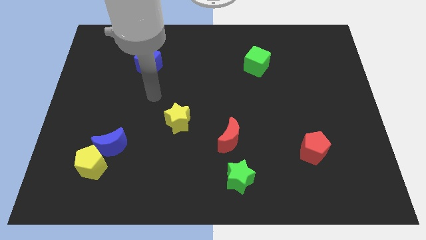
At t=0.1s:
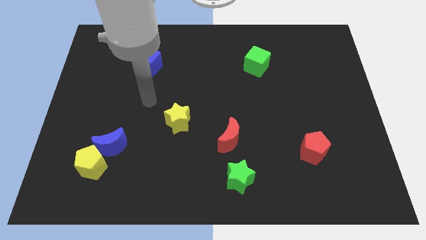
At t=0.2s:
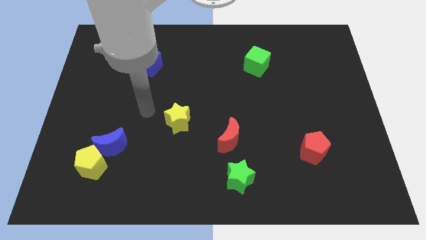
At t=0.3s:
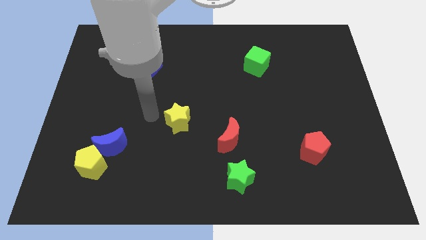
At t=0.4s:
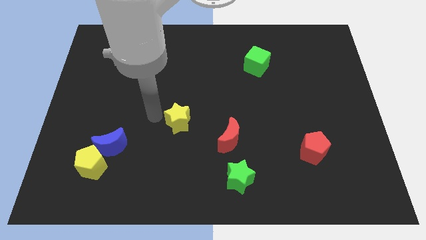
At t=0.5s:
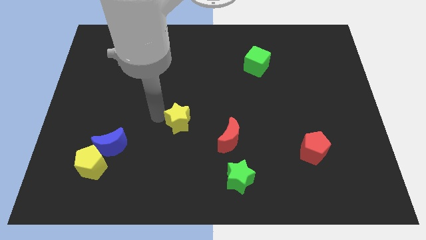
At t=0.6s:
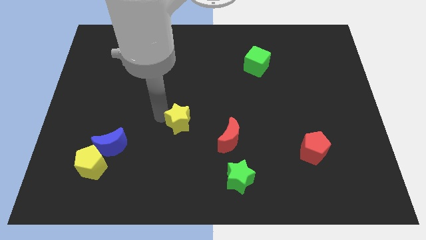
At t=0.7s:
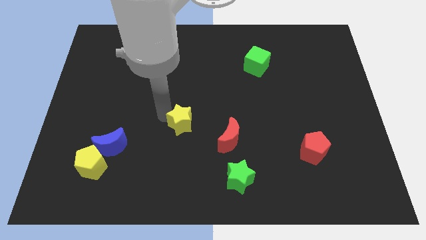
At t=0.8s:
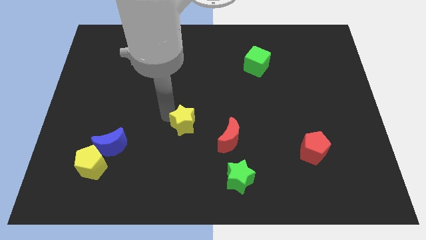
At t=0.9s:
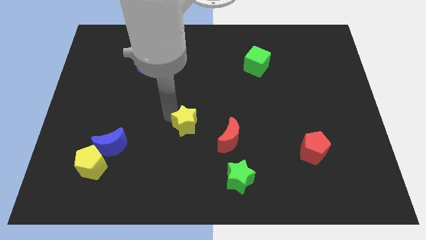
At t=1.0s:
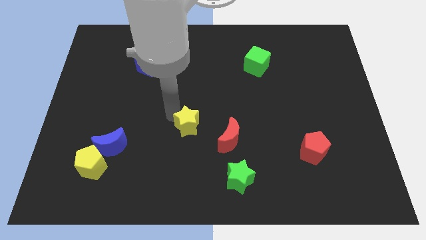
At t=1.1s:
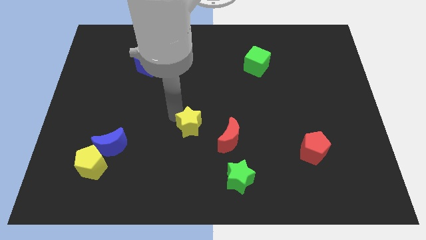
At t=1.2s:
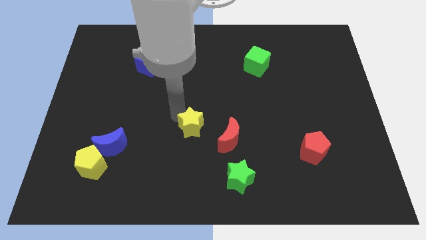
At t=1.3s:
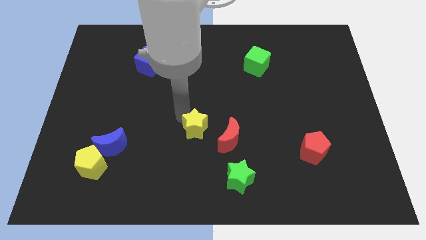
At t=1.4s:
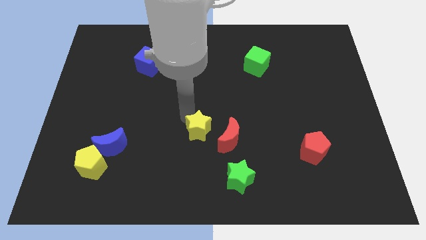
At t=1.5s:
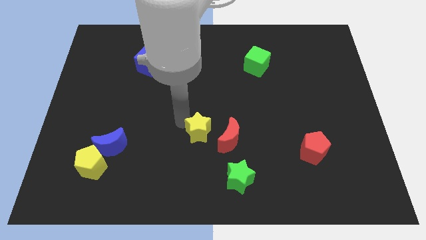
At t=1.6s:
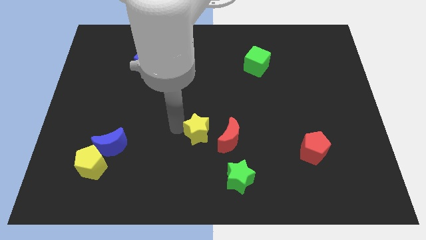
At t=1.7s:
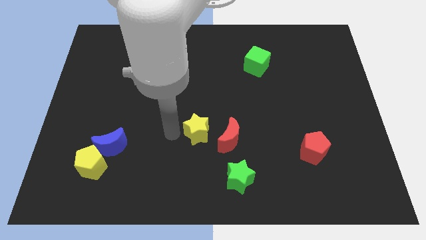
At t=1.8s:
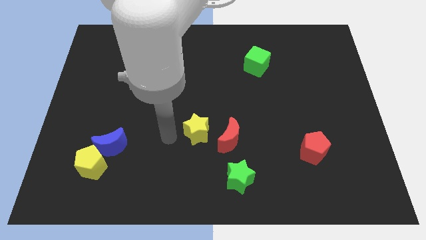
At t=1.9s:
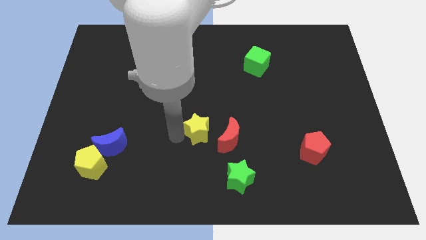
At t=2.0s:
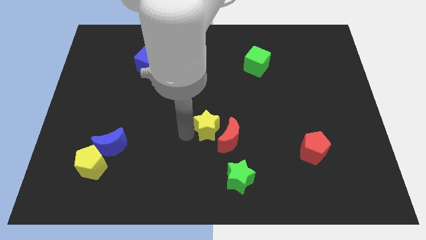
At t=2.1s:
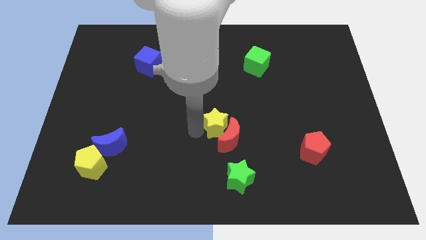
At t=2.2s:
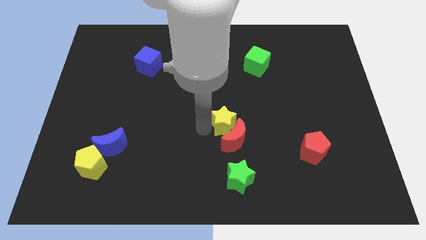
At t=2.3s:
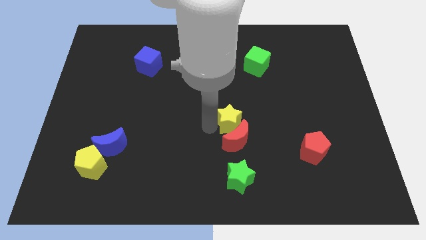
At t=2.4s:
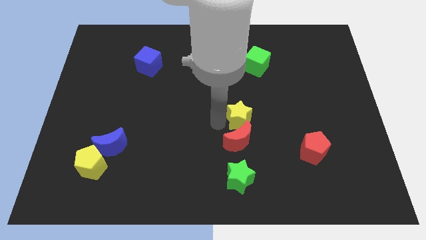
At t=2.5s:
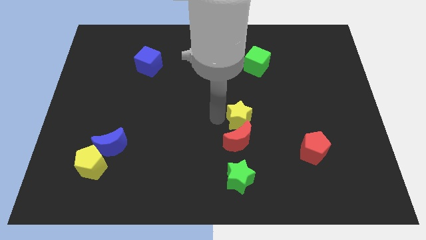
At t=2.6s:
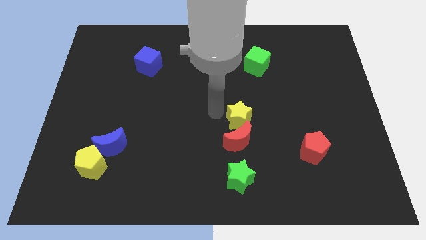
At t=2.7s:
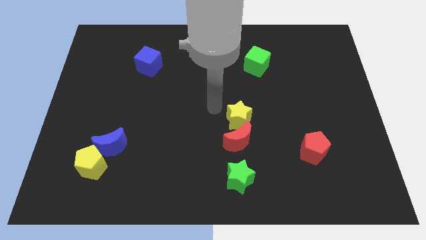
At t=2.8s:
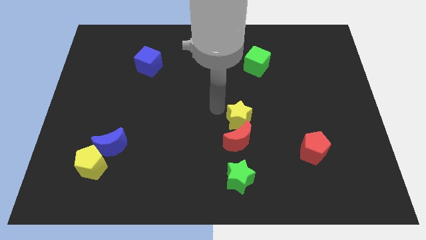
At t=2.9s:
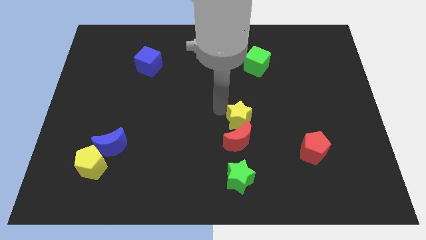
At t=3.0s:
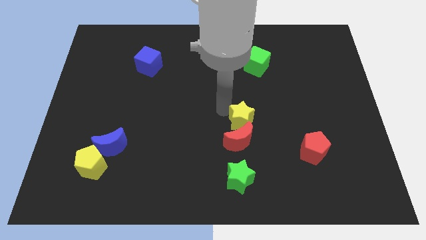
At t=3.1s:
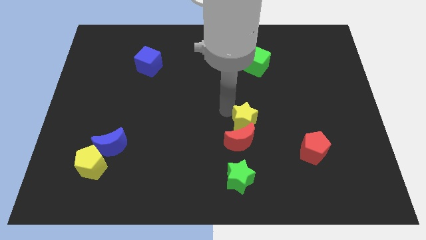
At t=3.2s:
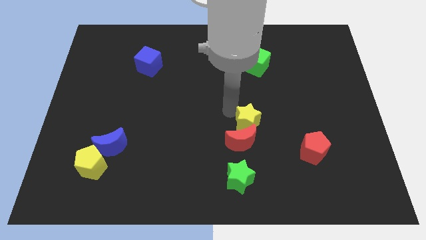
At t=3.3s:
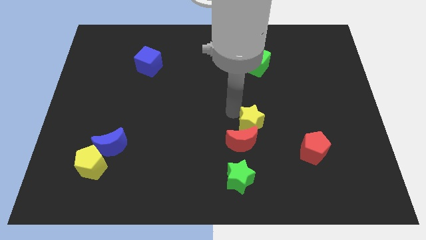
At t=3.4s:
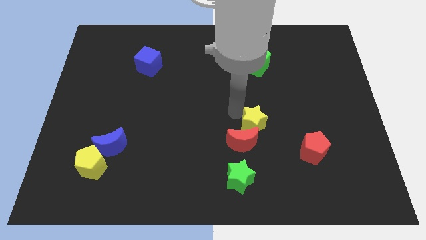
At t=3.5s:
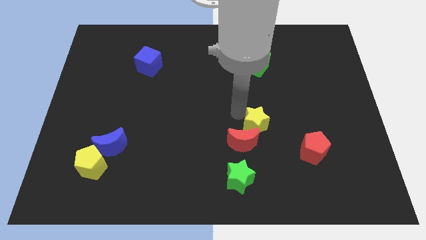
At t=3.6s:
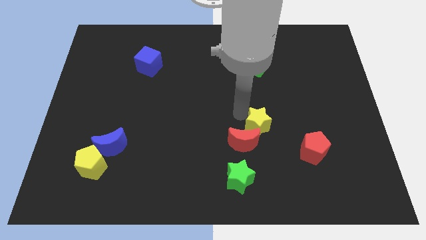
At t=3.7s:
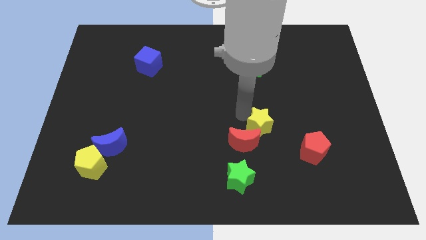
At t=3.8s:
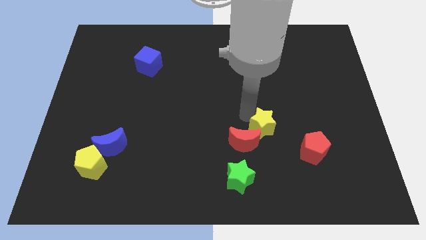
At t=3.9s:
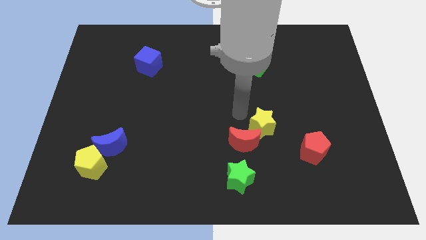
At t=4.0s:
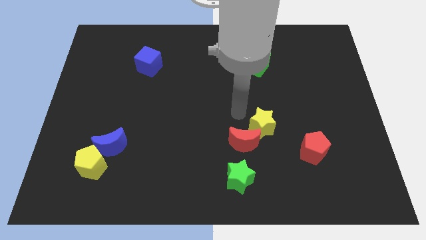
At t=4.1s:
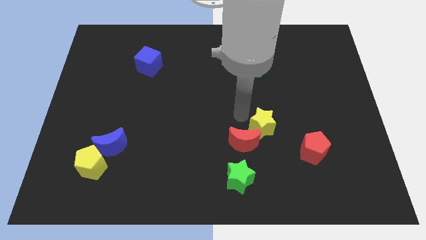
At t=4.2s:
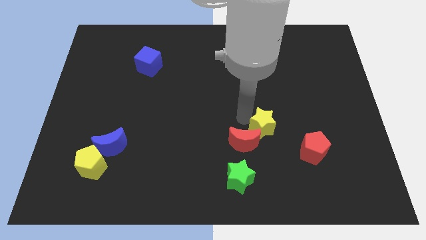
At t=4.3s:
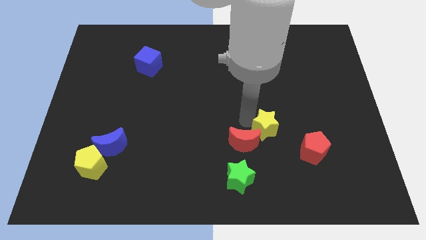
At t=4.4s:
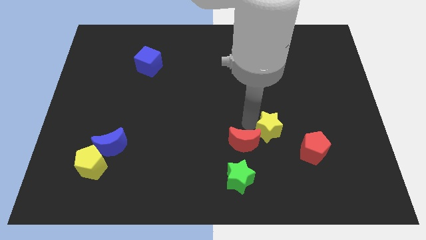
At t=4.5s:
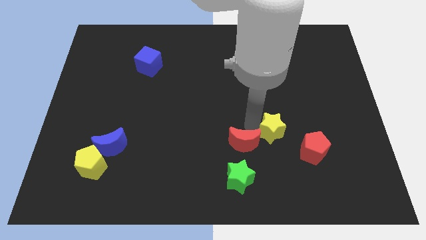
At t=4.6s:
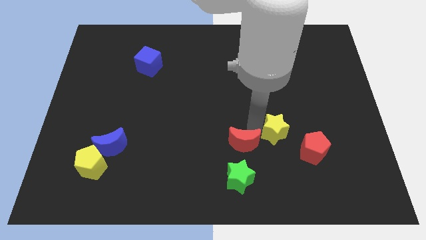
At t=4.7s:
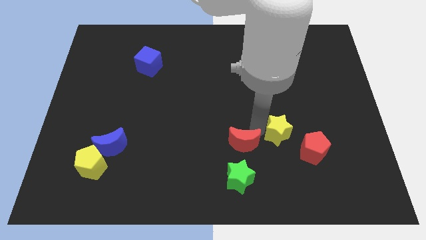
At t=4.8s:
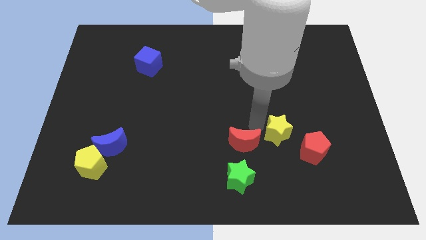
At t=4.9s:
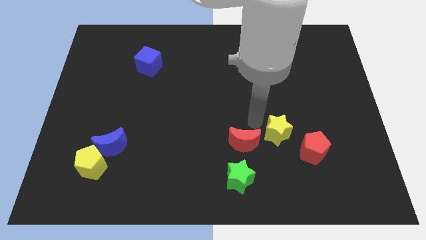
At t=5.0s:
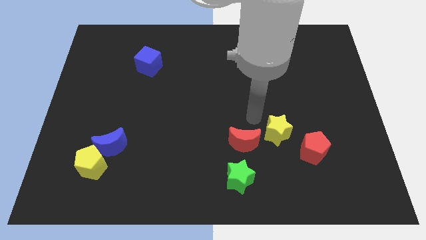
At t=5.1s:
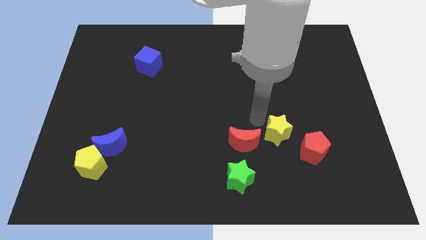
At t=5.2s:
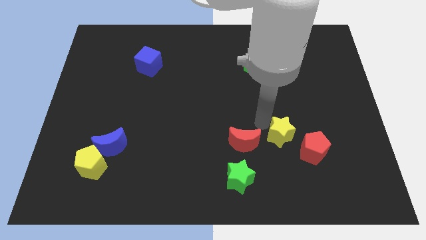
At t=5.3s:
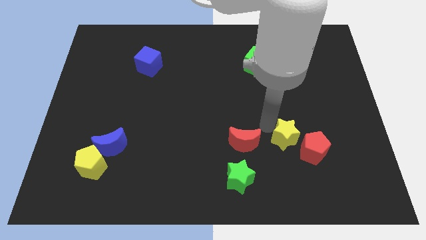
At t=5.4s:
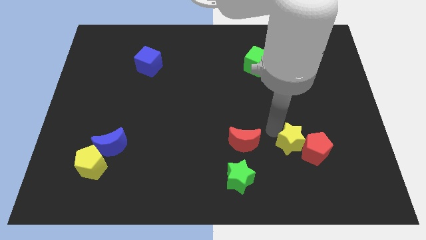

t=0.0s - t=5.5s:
move the yellow star towards the red pentagon

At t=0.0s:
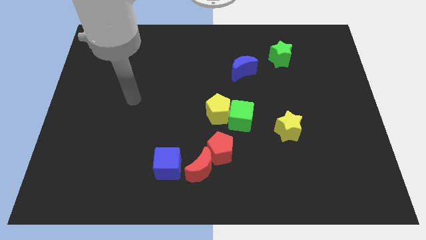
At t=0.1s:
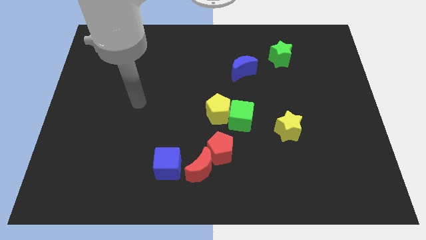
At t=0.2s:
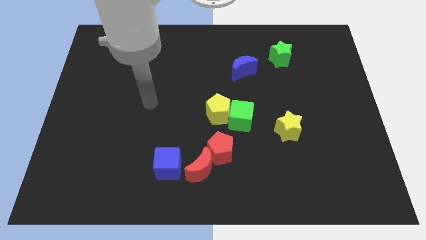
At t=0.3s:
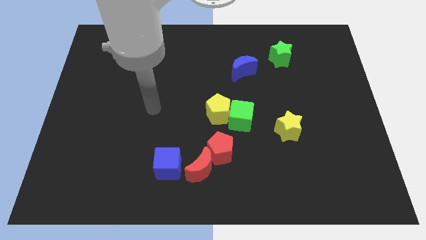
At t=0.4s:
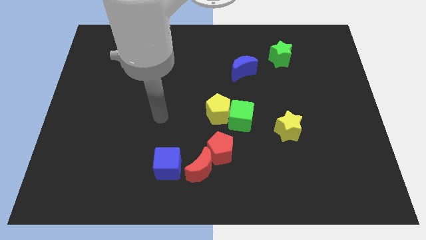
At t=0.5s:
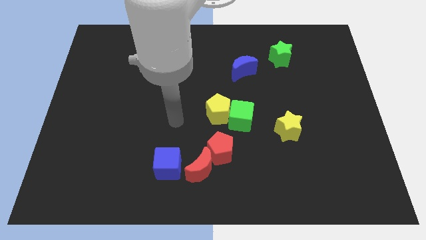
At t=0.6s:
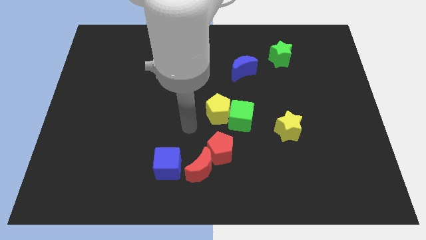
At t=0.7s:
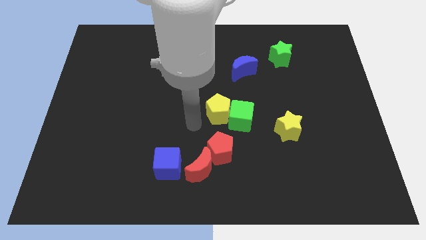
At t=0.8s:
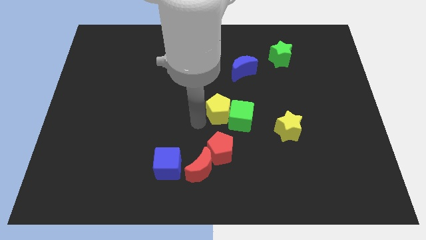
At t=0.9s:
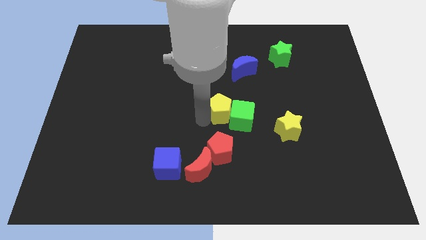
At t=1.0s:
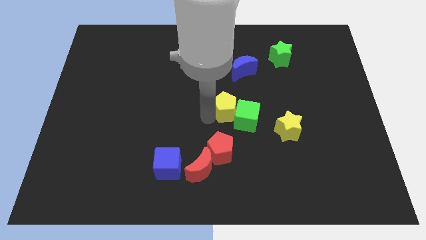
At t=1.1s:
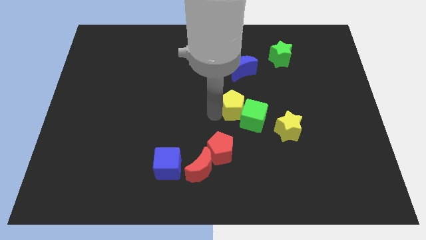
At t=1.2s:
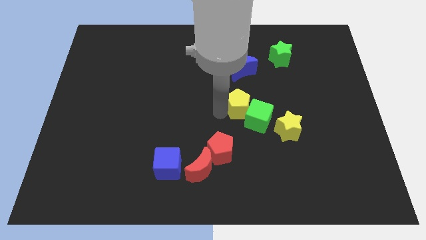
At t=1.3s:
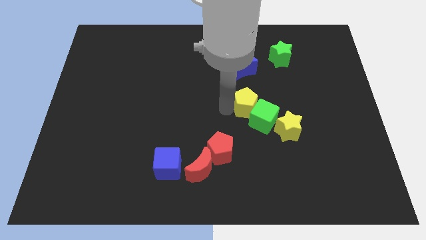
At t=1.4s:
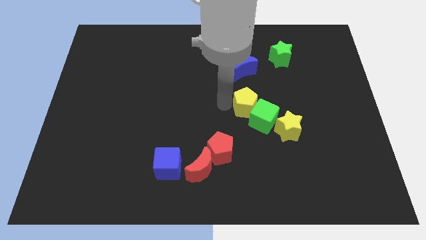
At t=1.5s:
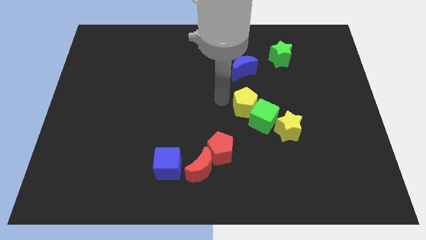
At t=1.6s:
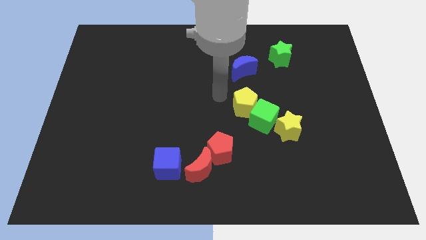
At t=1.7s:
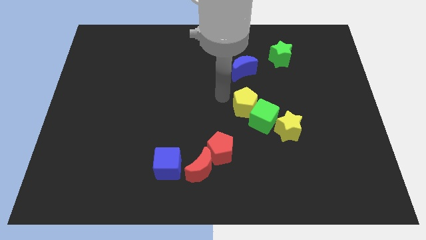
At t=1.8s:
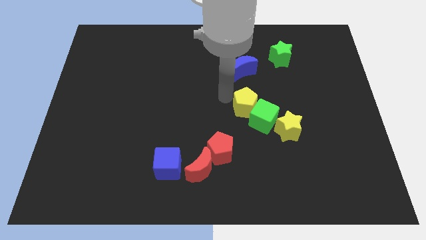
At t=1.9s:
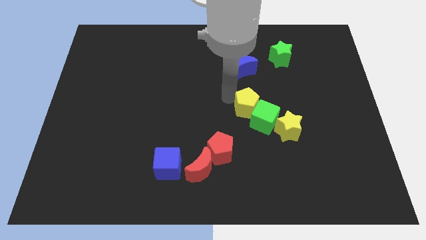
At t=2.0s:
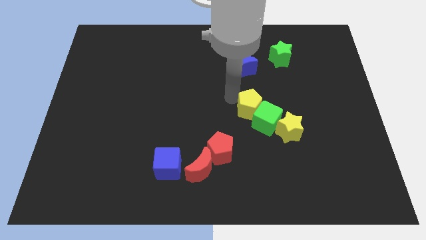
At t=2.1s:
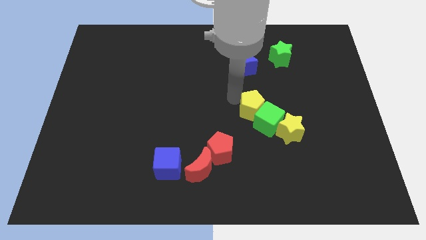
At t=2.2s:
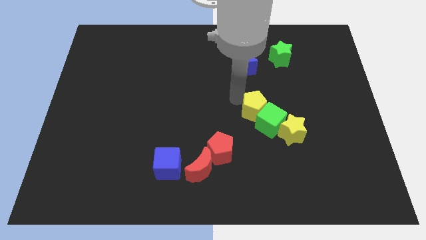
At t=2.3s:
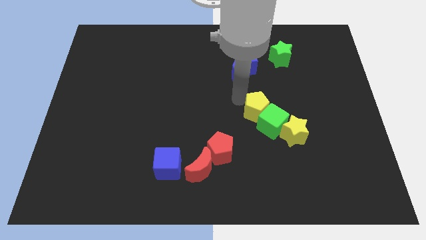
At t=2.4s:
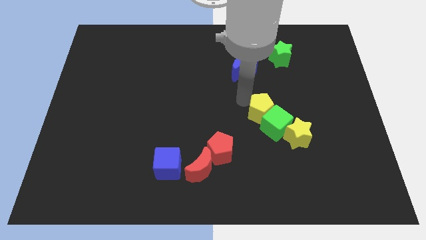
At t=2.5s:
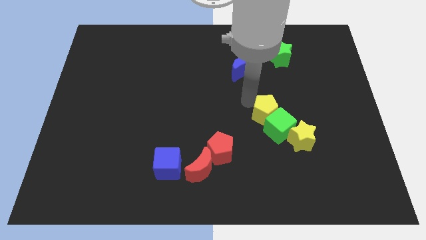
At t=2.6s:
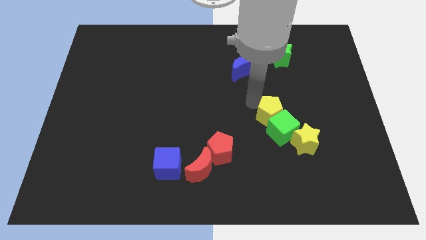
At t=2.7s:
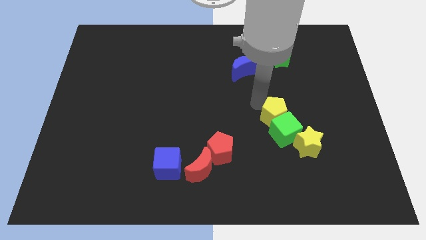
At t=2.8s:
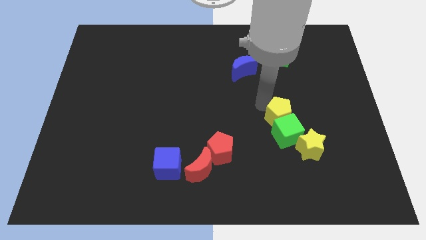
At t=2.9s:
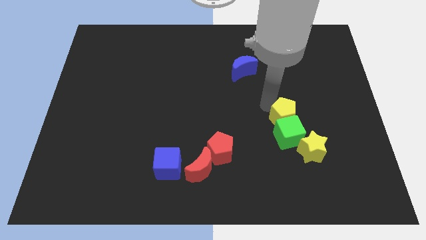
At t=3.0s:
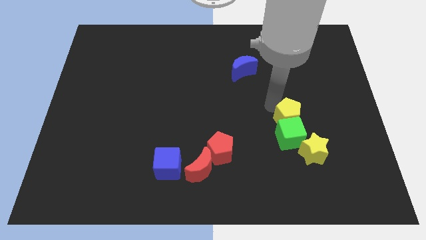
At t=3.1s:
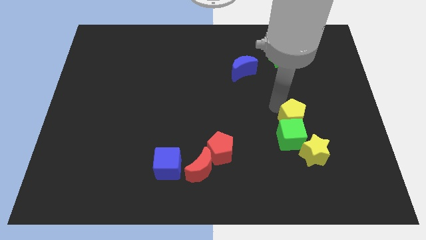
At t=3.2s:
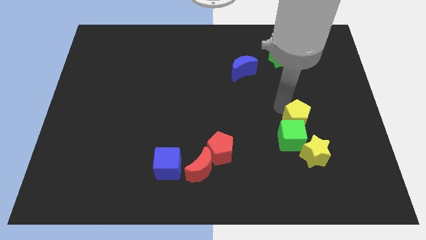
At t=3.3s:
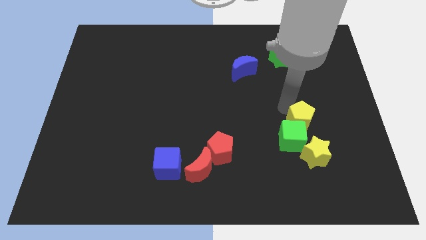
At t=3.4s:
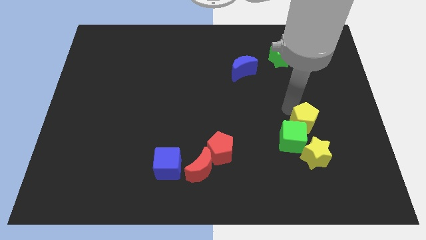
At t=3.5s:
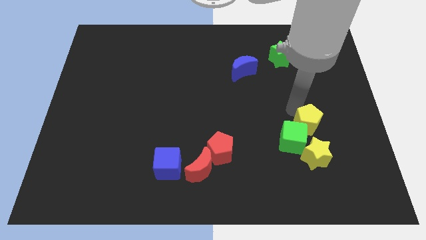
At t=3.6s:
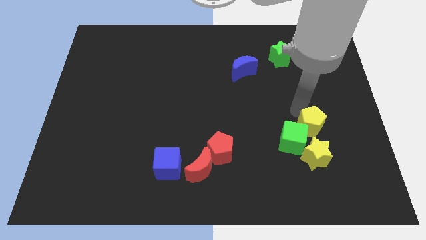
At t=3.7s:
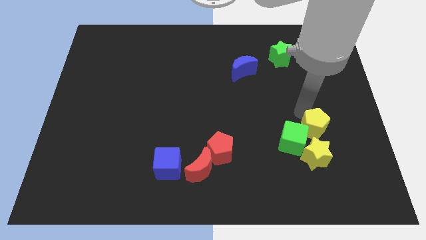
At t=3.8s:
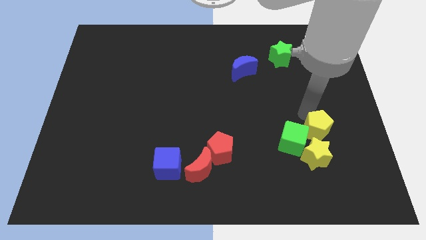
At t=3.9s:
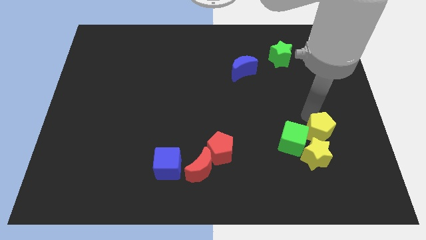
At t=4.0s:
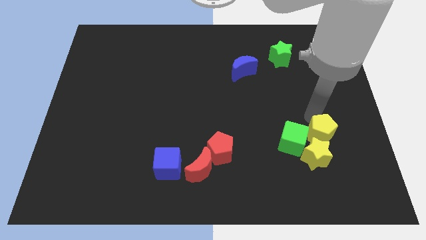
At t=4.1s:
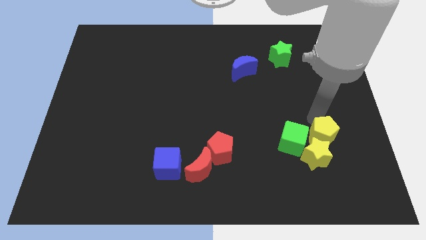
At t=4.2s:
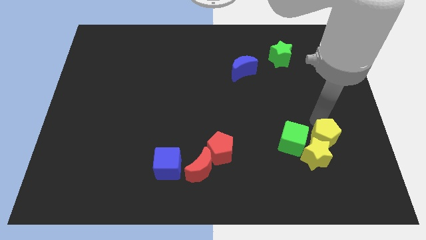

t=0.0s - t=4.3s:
push the yellow pentagon next to the yellow star
